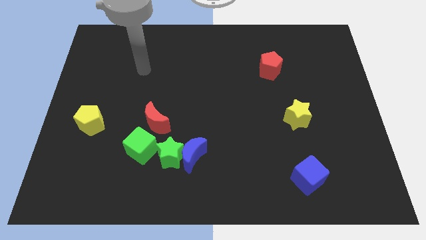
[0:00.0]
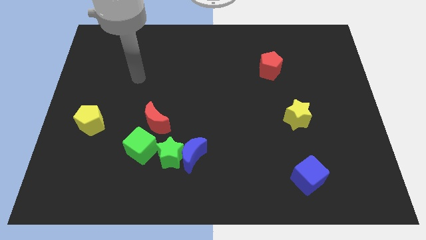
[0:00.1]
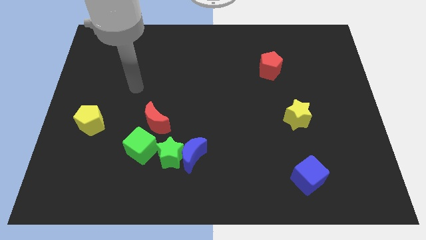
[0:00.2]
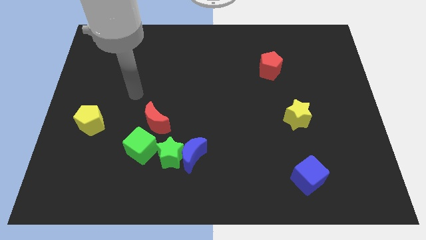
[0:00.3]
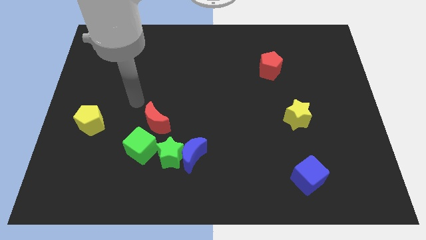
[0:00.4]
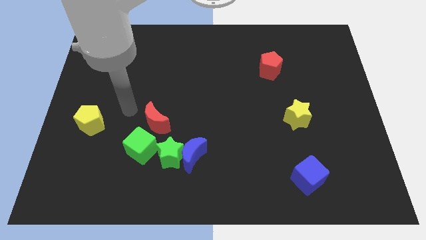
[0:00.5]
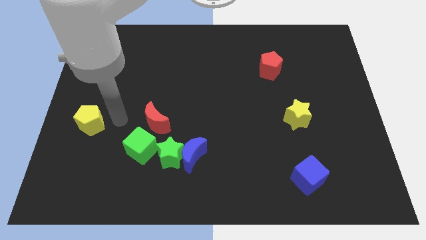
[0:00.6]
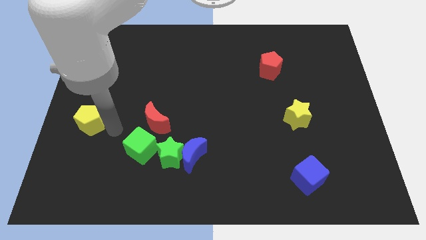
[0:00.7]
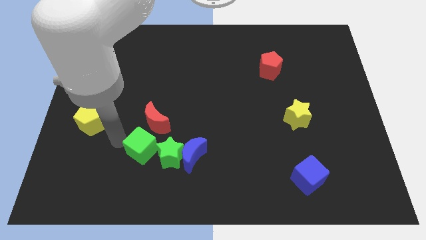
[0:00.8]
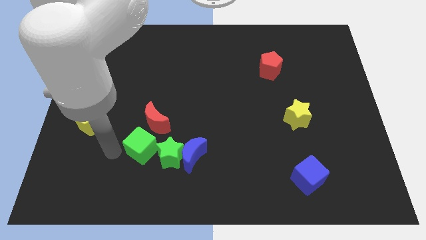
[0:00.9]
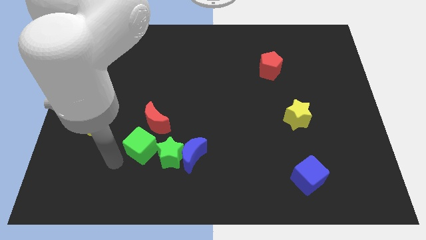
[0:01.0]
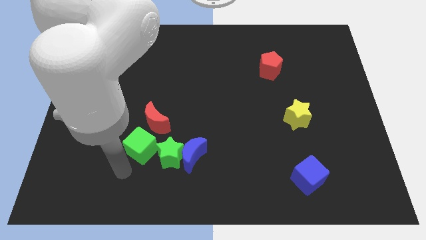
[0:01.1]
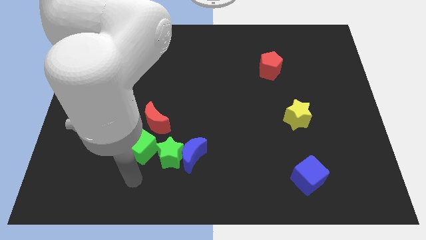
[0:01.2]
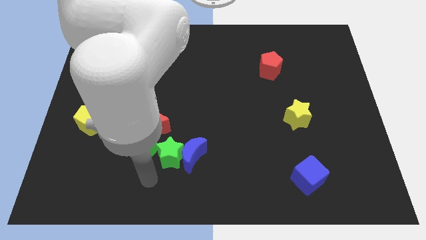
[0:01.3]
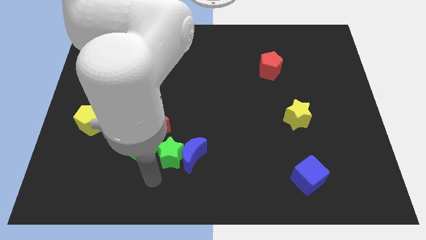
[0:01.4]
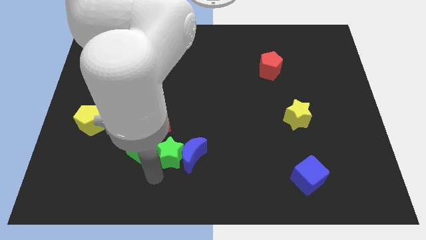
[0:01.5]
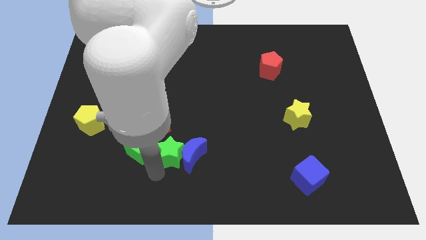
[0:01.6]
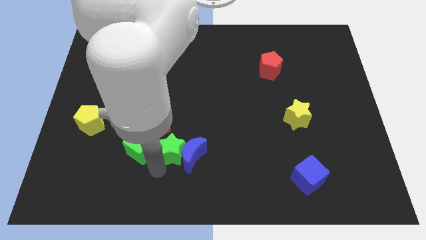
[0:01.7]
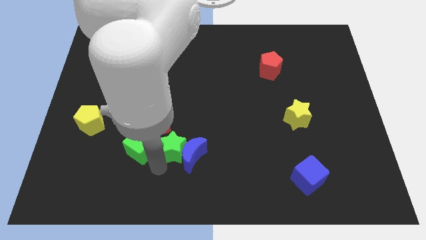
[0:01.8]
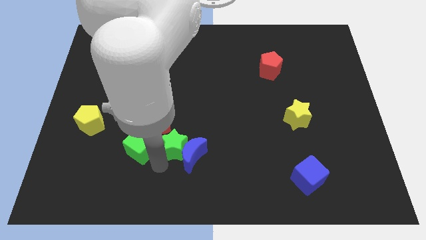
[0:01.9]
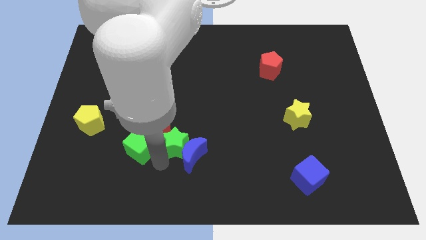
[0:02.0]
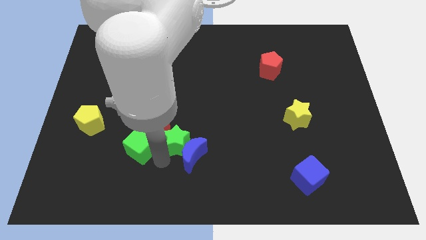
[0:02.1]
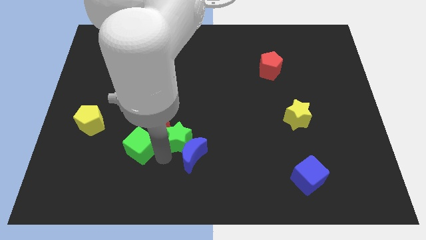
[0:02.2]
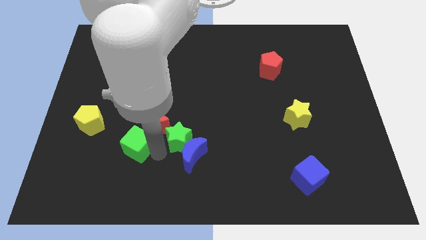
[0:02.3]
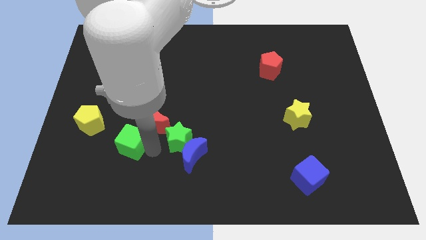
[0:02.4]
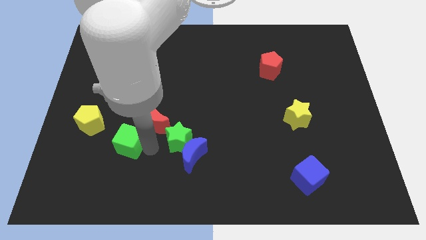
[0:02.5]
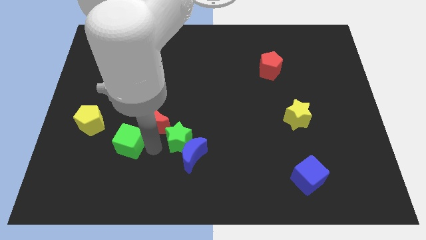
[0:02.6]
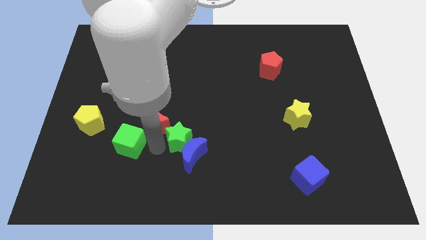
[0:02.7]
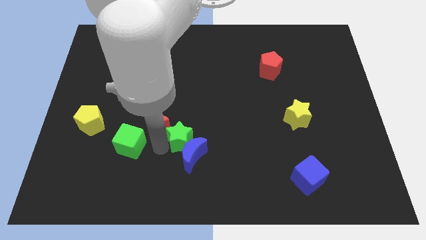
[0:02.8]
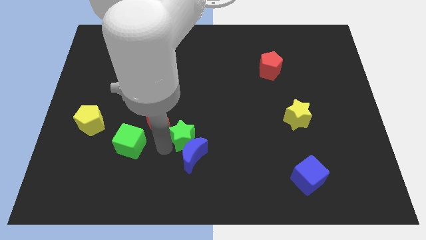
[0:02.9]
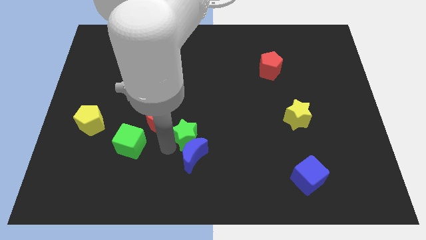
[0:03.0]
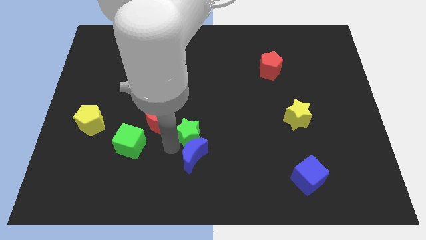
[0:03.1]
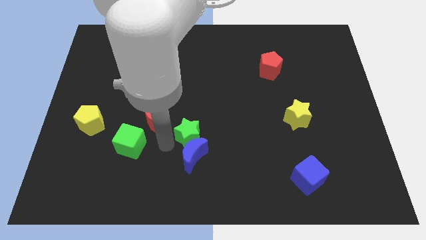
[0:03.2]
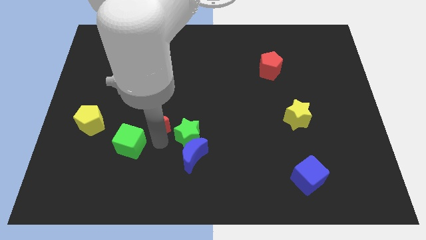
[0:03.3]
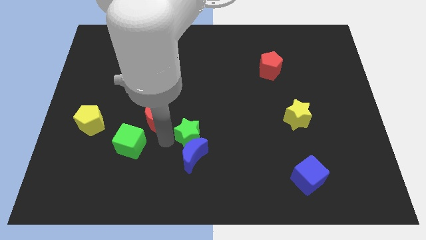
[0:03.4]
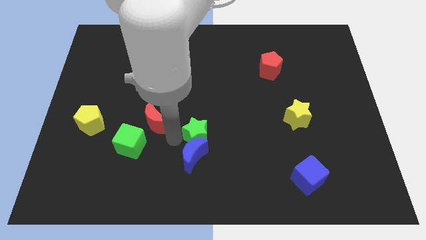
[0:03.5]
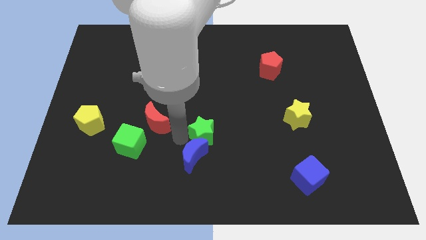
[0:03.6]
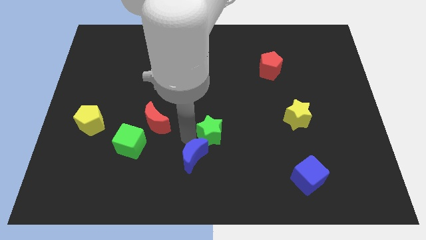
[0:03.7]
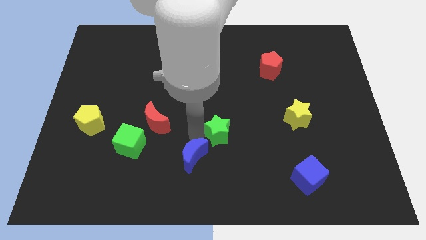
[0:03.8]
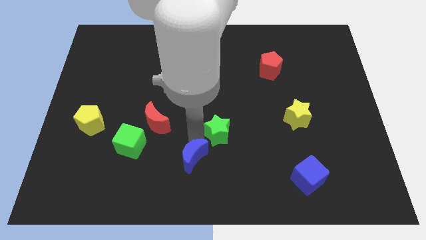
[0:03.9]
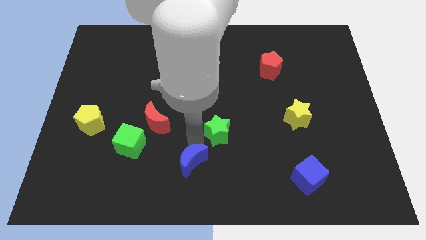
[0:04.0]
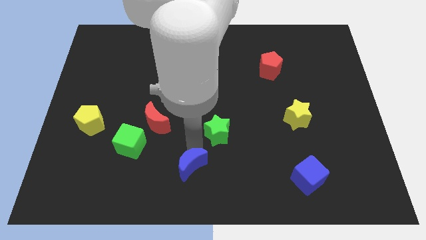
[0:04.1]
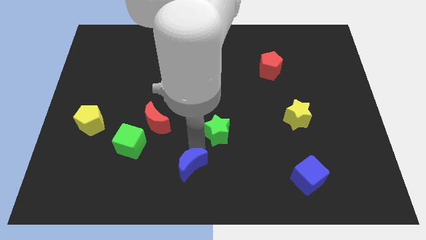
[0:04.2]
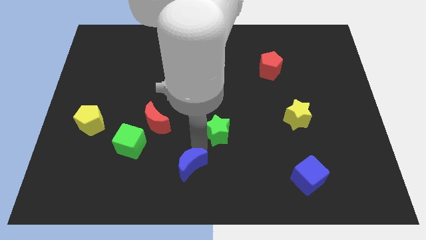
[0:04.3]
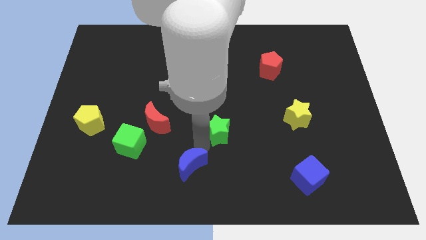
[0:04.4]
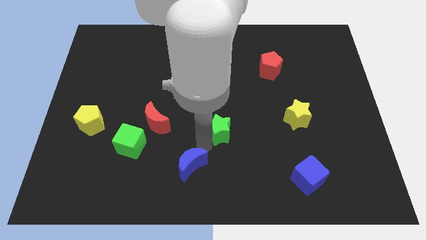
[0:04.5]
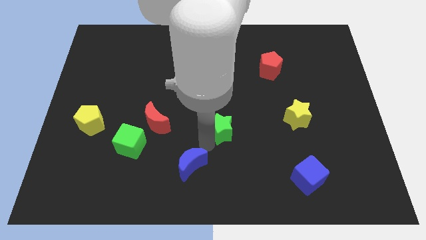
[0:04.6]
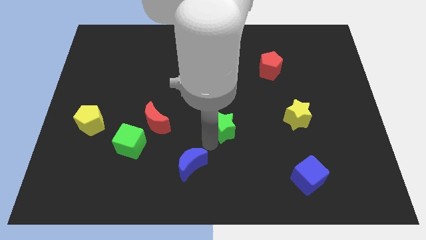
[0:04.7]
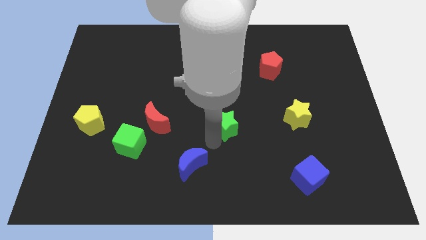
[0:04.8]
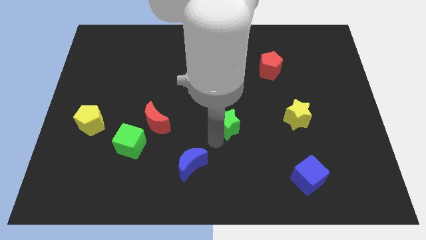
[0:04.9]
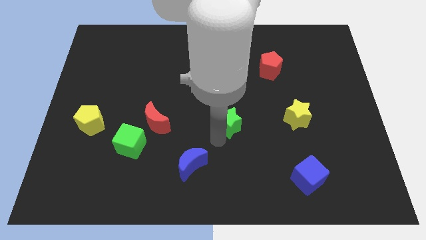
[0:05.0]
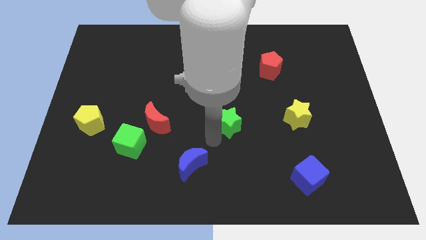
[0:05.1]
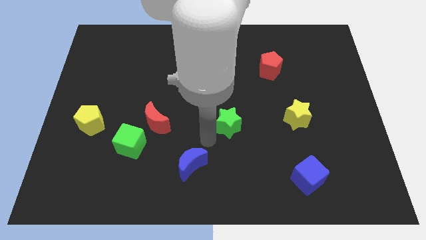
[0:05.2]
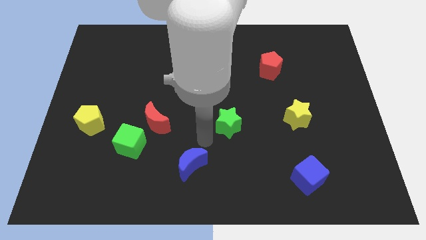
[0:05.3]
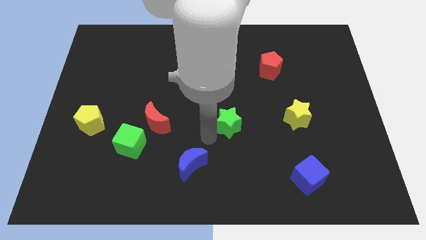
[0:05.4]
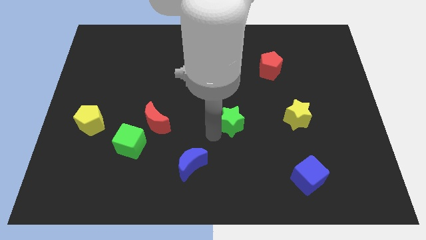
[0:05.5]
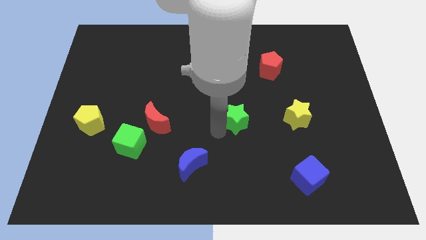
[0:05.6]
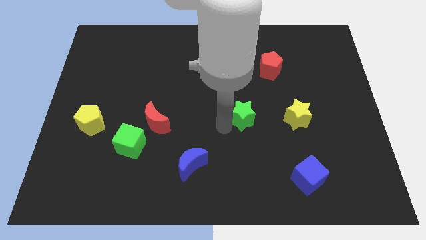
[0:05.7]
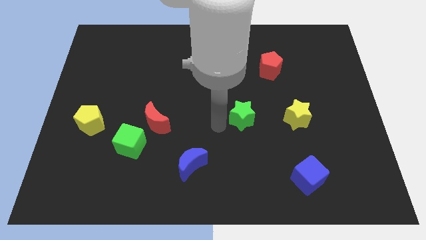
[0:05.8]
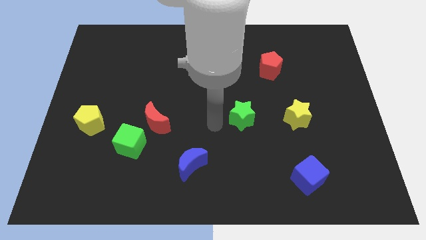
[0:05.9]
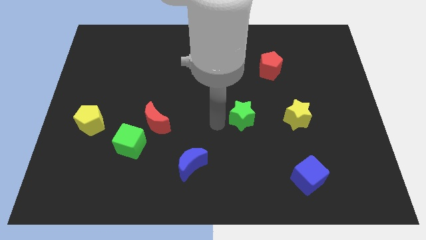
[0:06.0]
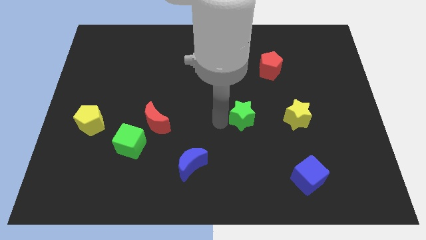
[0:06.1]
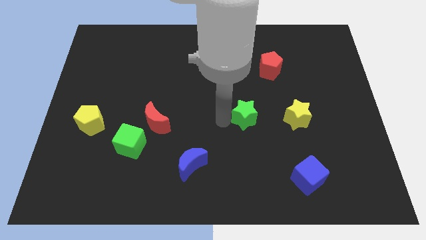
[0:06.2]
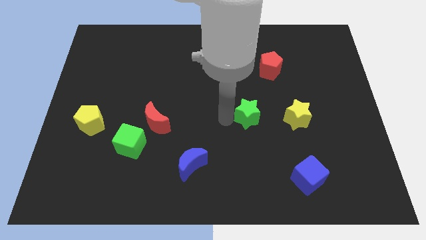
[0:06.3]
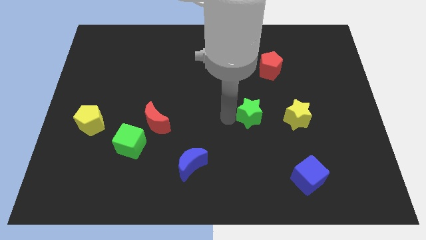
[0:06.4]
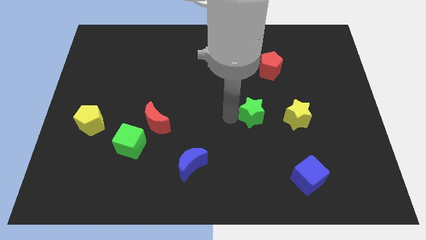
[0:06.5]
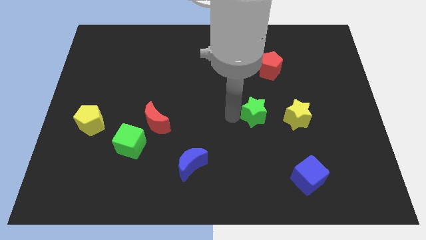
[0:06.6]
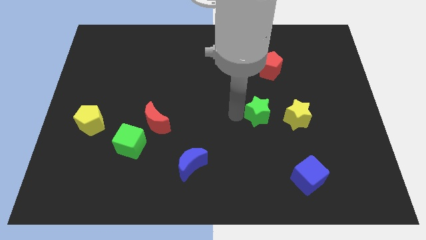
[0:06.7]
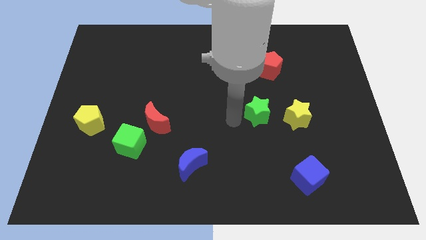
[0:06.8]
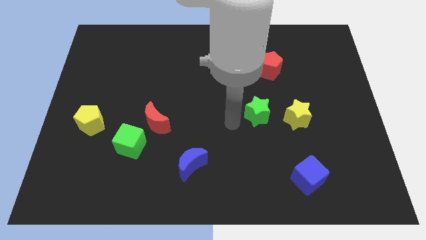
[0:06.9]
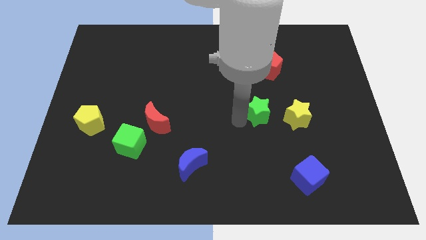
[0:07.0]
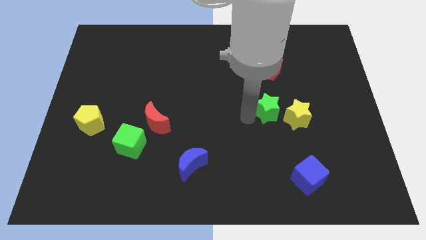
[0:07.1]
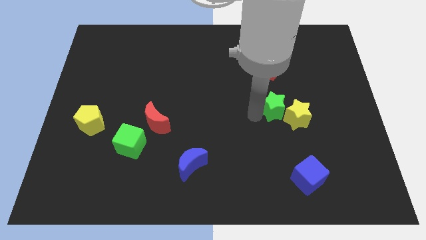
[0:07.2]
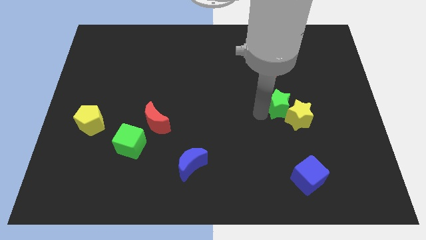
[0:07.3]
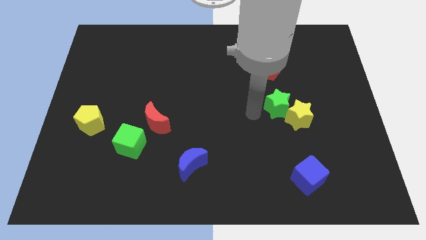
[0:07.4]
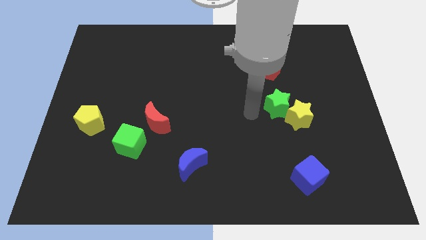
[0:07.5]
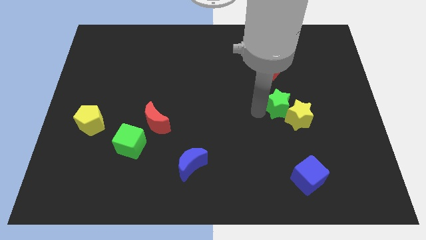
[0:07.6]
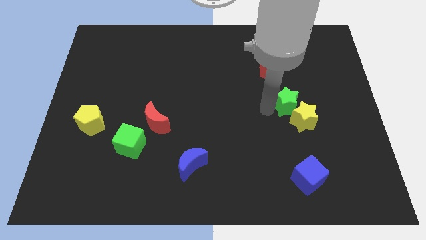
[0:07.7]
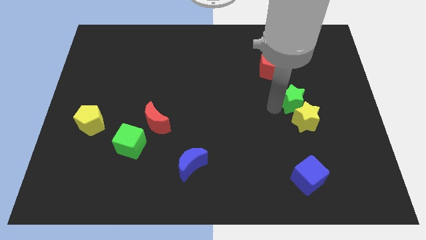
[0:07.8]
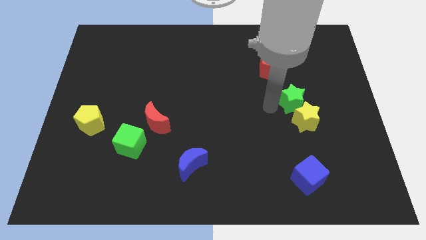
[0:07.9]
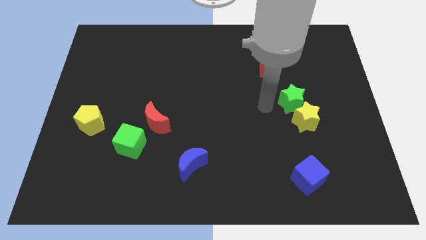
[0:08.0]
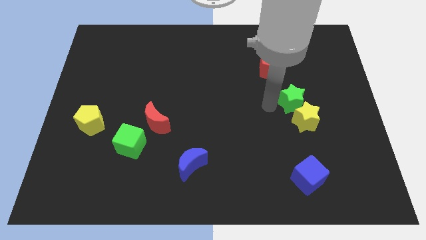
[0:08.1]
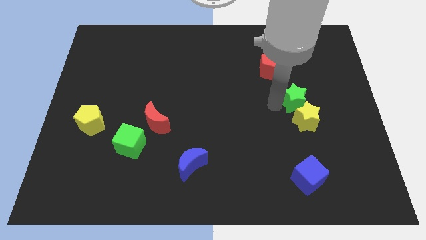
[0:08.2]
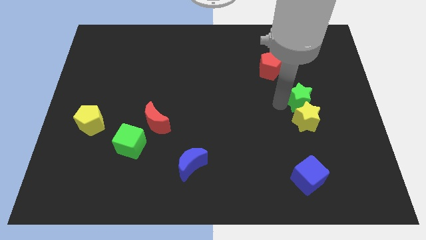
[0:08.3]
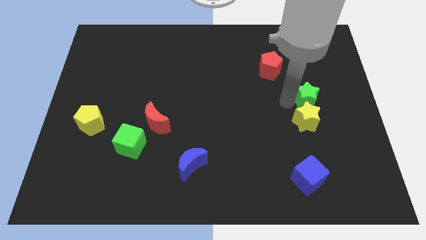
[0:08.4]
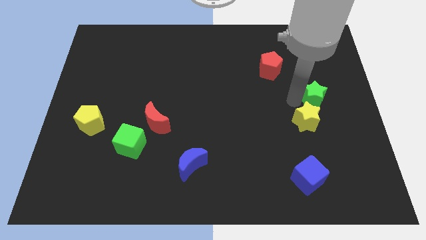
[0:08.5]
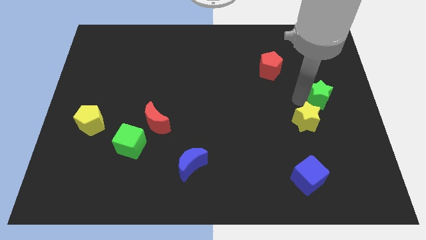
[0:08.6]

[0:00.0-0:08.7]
slide the green star to the right side of the board
